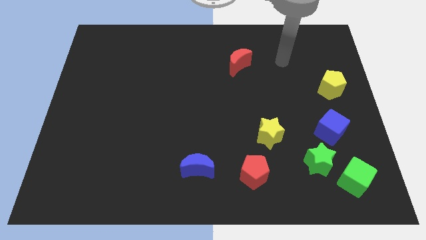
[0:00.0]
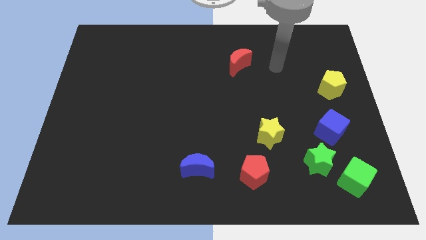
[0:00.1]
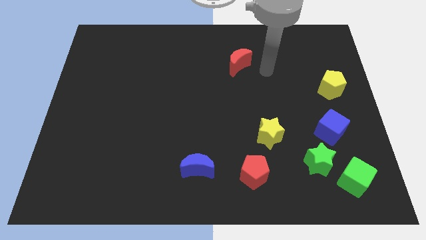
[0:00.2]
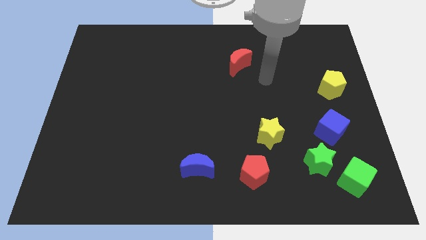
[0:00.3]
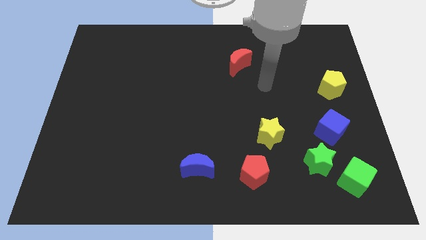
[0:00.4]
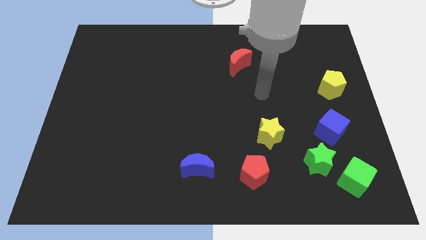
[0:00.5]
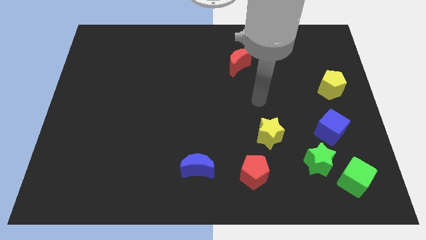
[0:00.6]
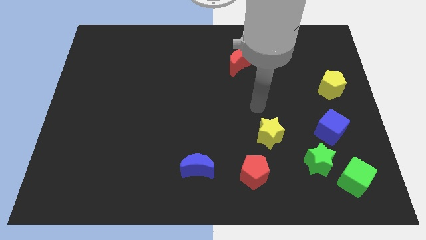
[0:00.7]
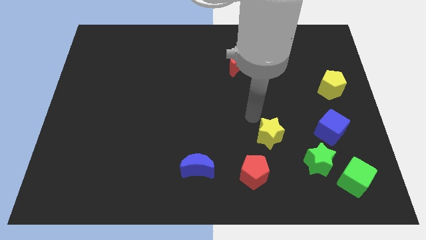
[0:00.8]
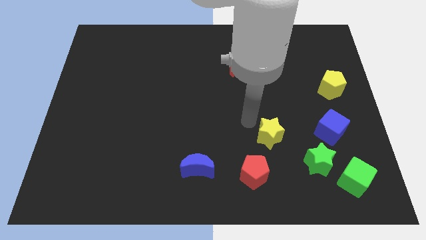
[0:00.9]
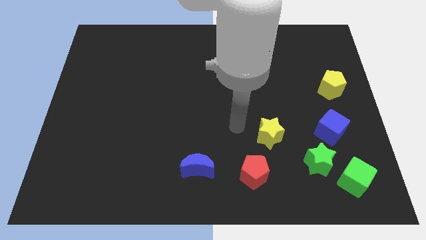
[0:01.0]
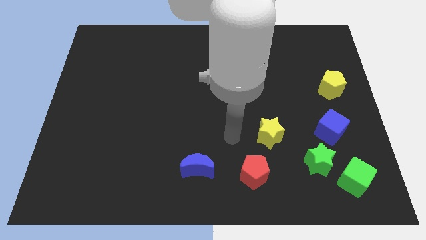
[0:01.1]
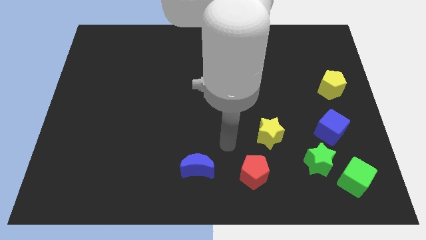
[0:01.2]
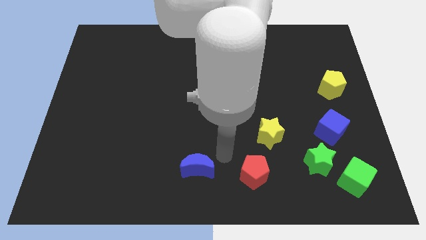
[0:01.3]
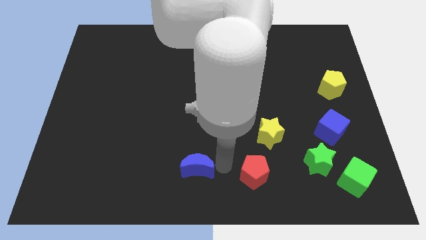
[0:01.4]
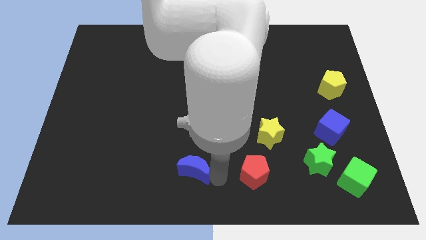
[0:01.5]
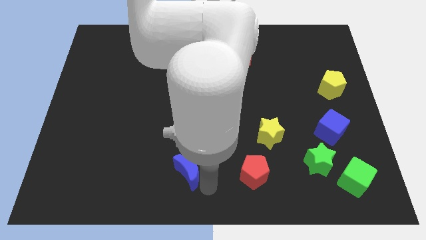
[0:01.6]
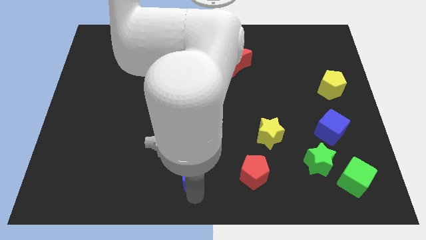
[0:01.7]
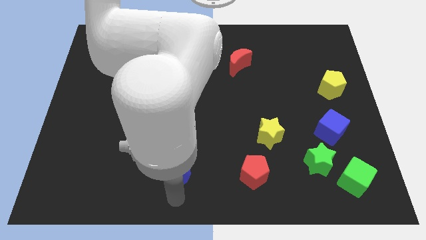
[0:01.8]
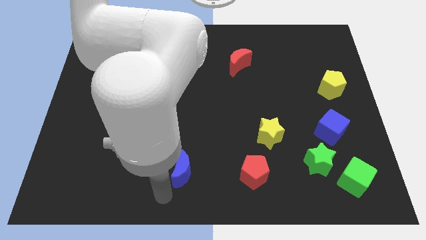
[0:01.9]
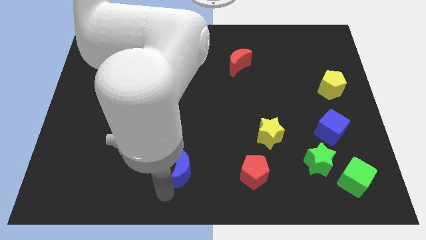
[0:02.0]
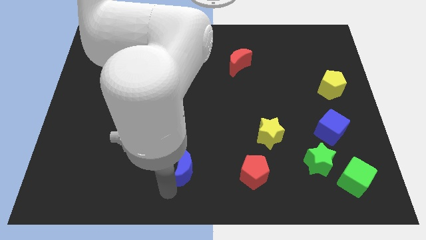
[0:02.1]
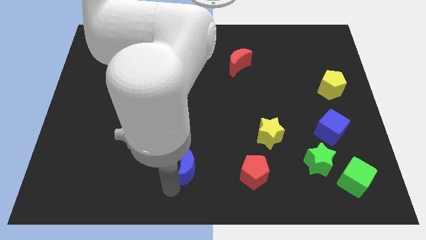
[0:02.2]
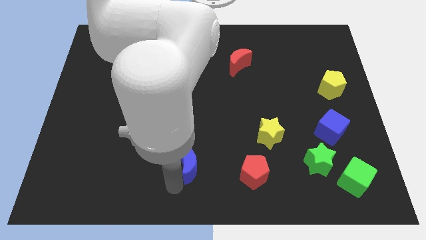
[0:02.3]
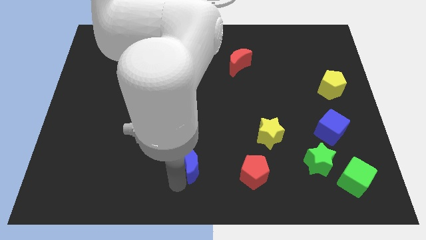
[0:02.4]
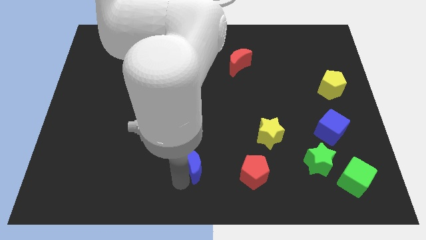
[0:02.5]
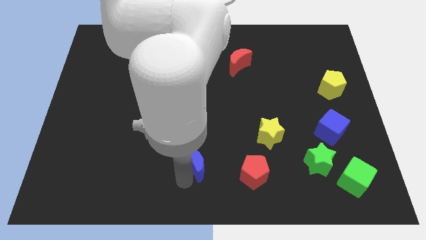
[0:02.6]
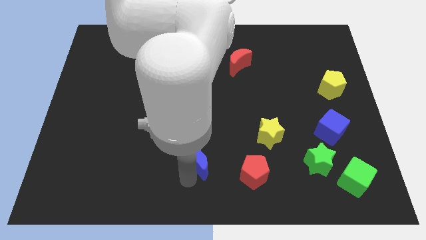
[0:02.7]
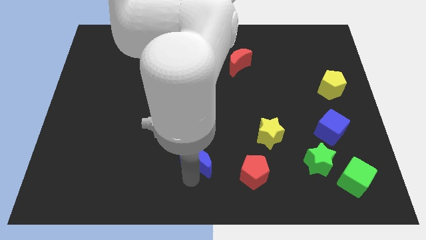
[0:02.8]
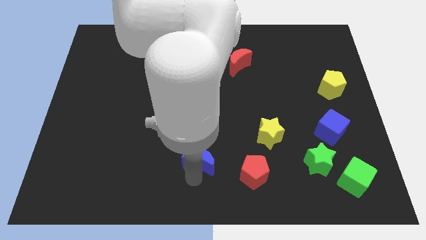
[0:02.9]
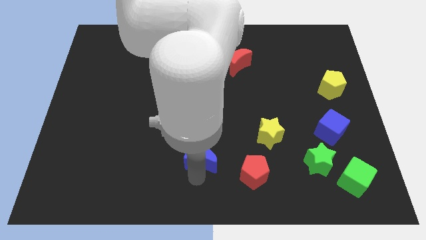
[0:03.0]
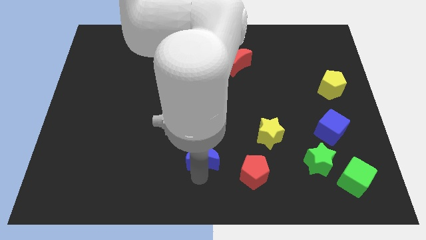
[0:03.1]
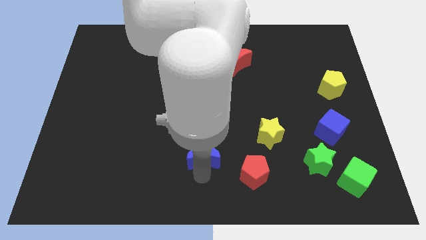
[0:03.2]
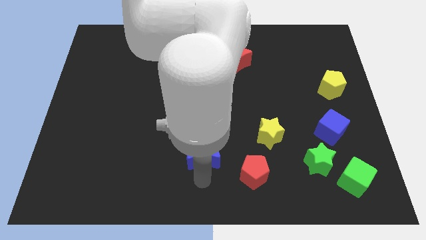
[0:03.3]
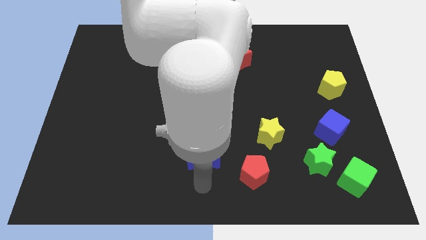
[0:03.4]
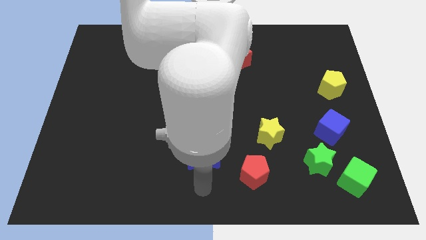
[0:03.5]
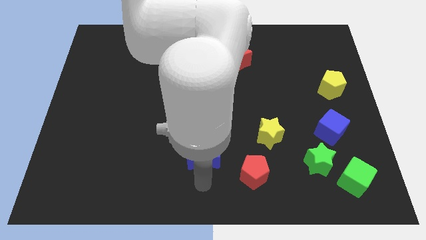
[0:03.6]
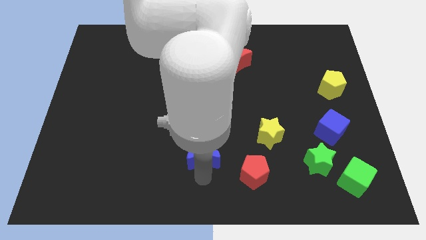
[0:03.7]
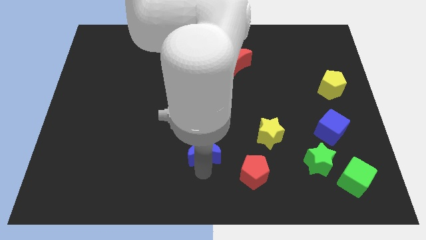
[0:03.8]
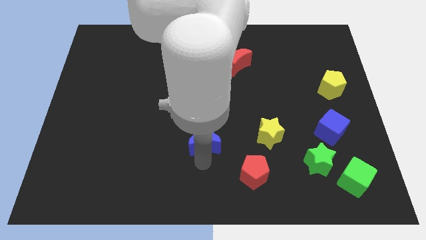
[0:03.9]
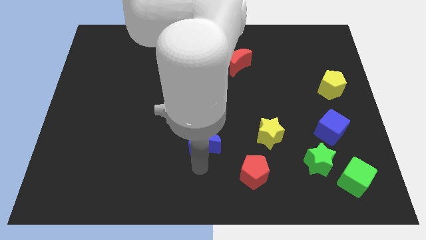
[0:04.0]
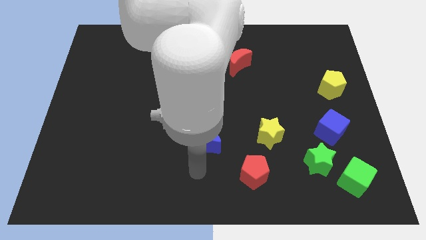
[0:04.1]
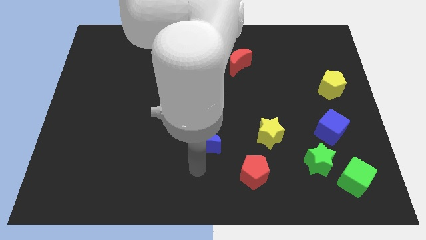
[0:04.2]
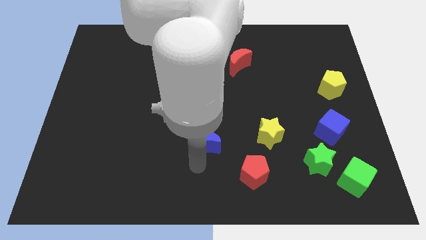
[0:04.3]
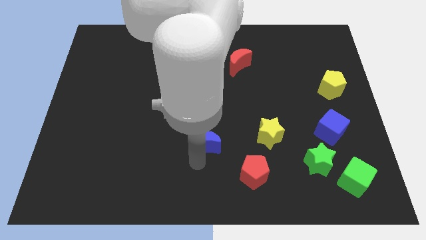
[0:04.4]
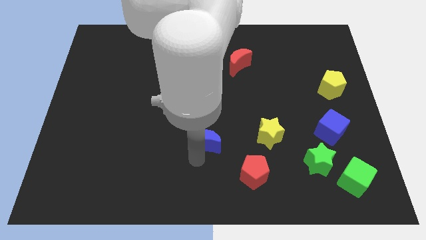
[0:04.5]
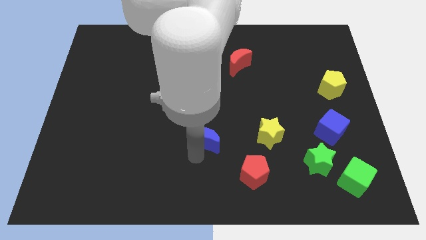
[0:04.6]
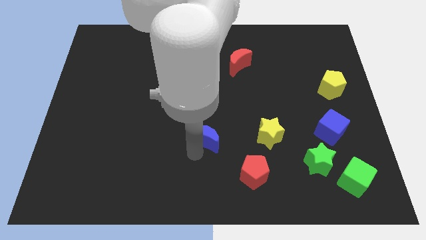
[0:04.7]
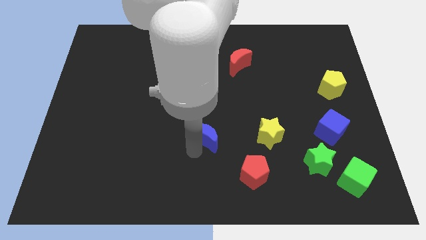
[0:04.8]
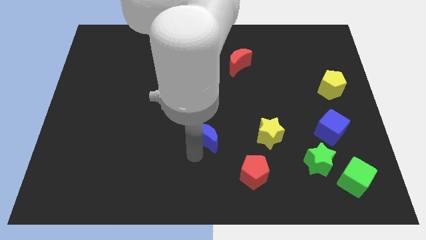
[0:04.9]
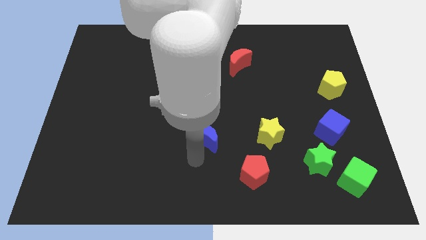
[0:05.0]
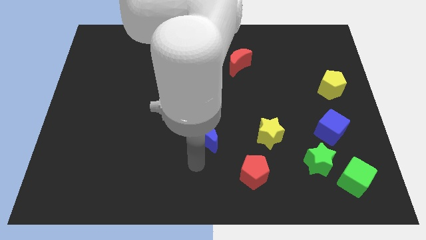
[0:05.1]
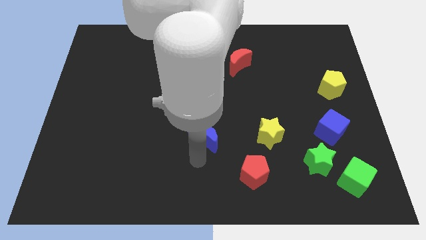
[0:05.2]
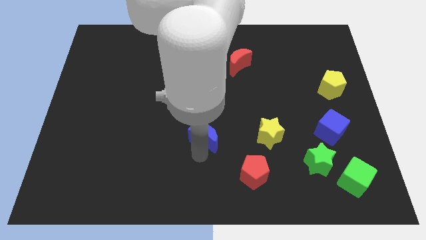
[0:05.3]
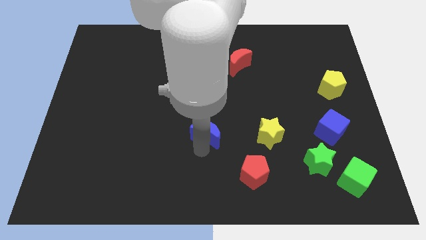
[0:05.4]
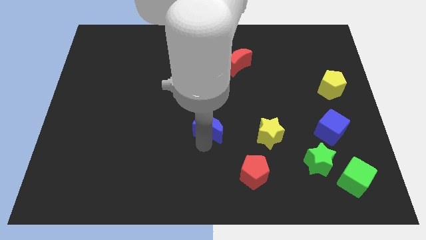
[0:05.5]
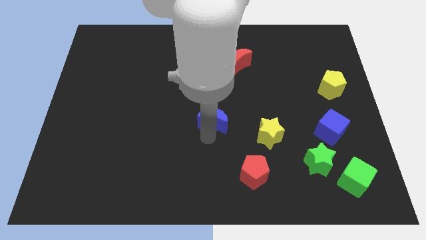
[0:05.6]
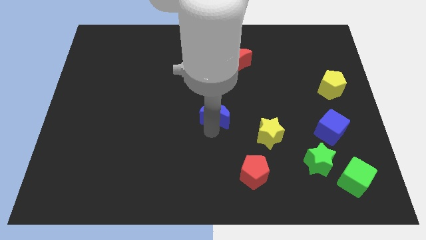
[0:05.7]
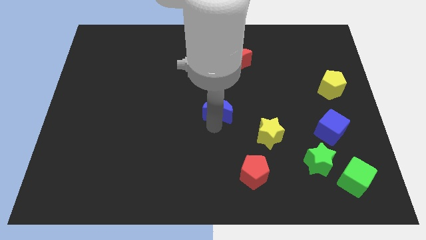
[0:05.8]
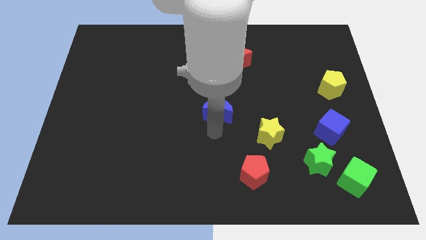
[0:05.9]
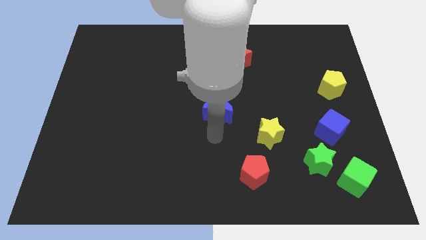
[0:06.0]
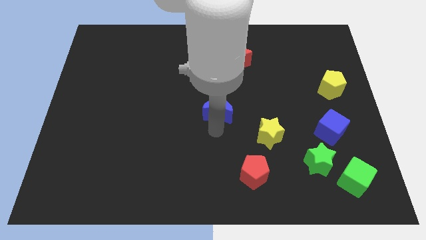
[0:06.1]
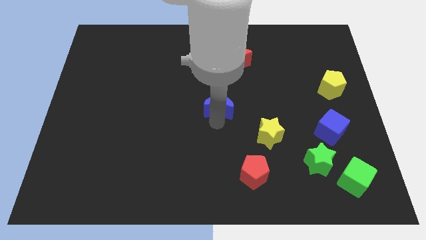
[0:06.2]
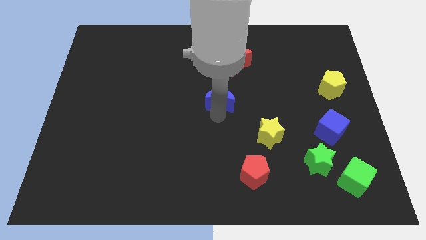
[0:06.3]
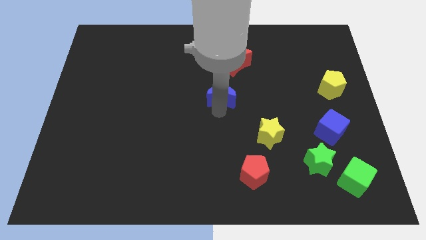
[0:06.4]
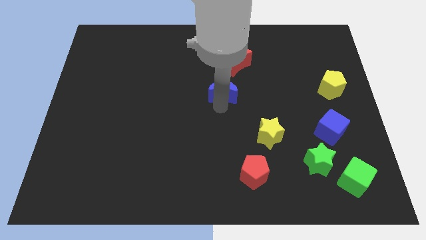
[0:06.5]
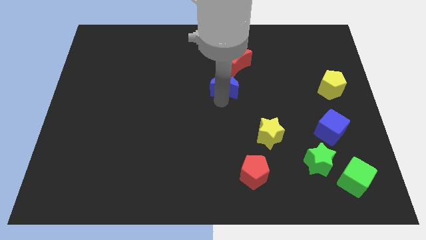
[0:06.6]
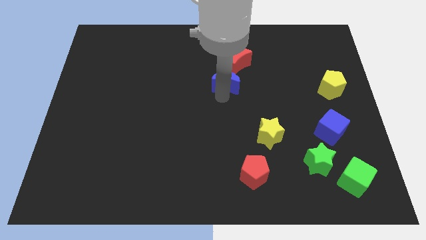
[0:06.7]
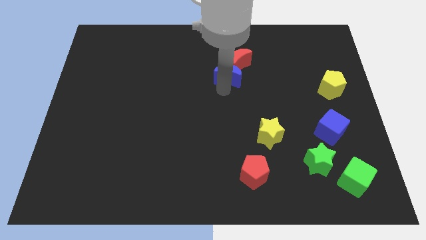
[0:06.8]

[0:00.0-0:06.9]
move the blue moon next to the red moon

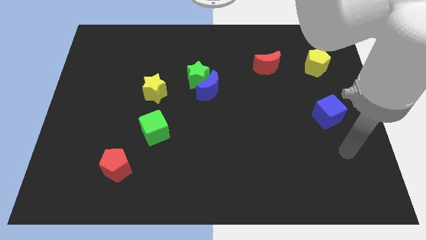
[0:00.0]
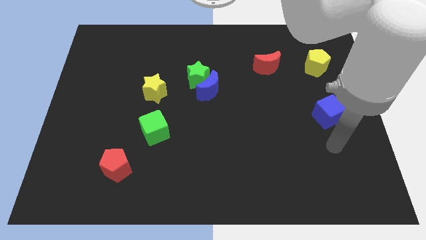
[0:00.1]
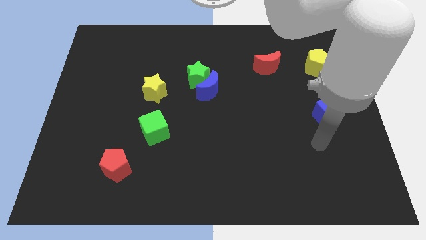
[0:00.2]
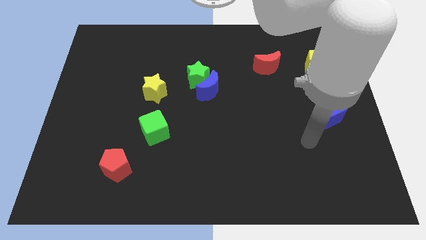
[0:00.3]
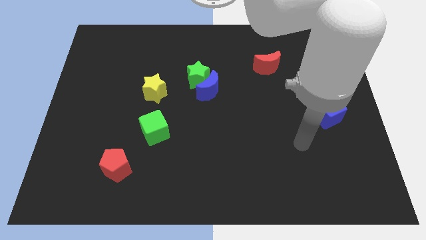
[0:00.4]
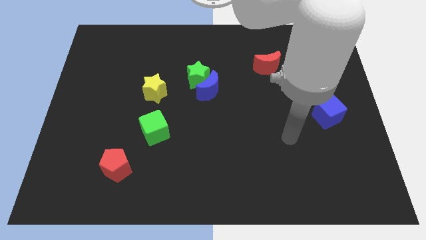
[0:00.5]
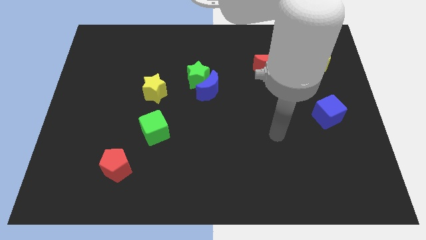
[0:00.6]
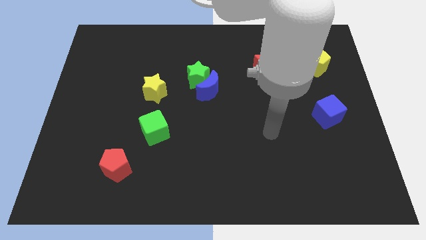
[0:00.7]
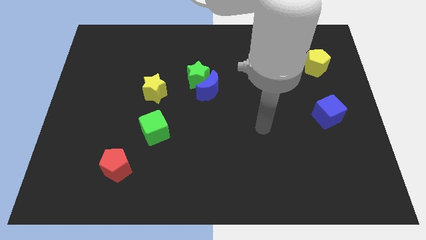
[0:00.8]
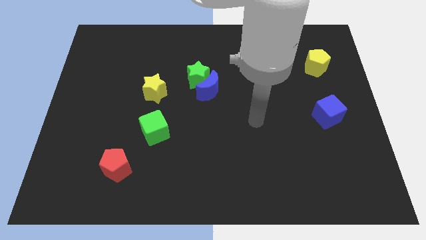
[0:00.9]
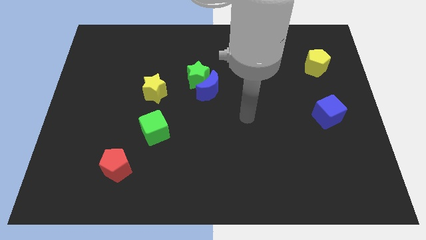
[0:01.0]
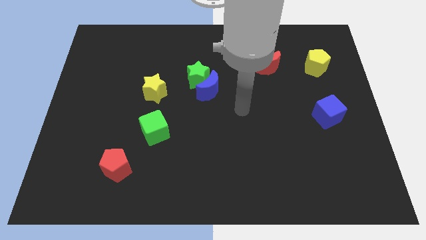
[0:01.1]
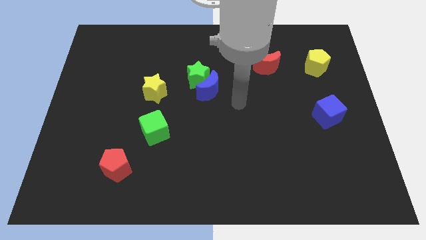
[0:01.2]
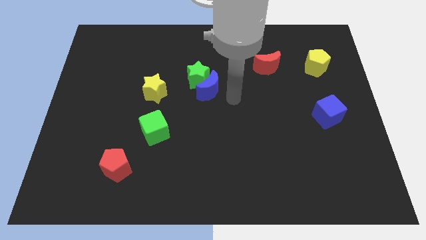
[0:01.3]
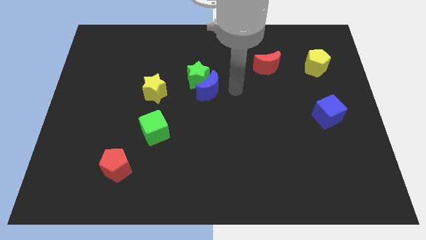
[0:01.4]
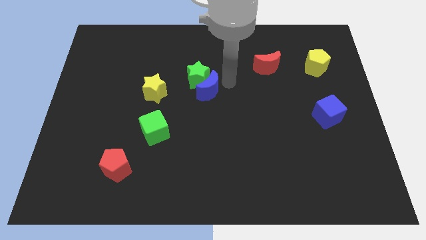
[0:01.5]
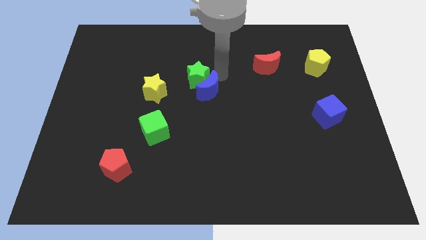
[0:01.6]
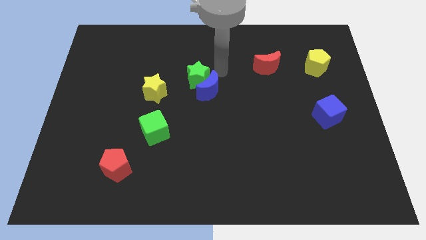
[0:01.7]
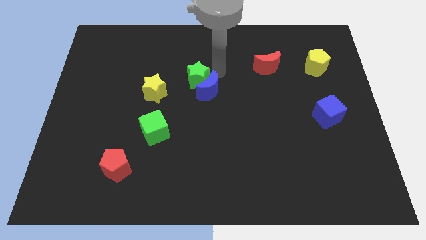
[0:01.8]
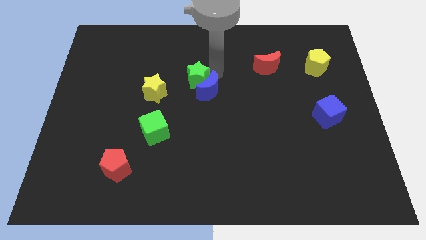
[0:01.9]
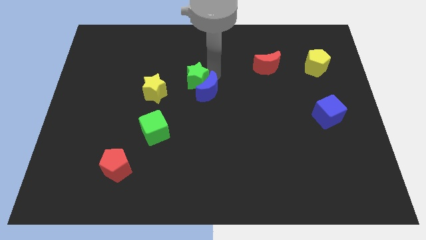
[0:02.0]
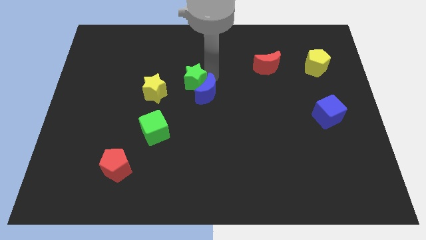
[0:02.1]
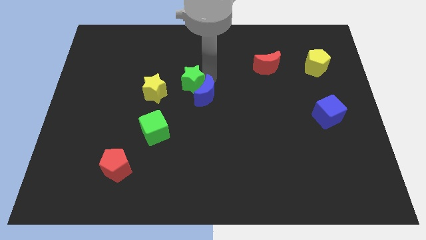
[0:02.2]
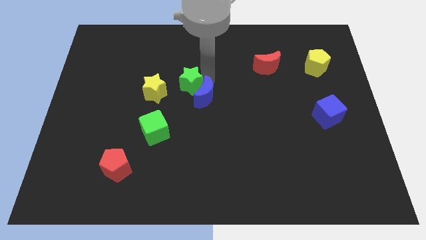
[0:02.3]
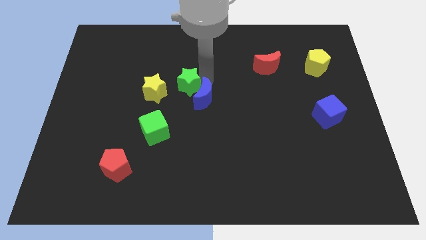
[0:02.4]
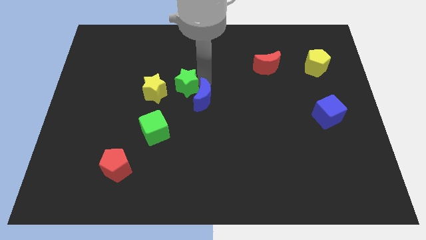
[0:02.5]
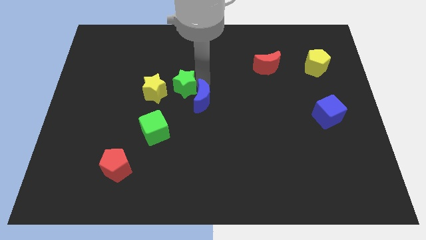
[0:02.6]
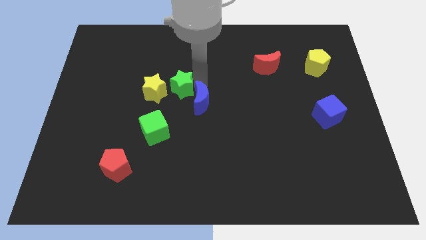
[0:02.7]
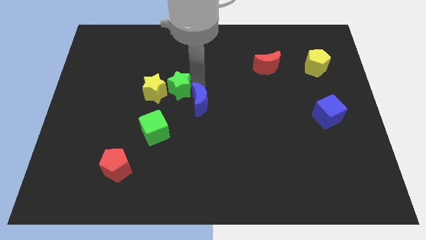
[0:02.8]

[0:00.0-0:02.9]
push the green star close to the yellow star
